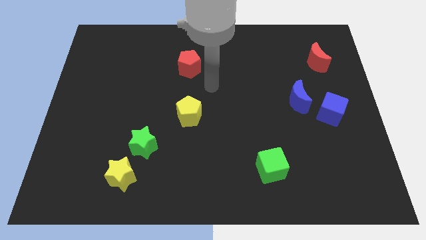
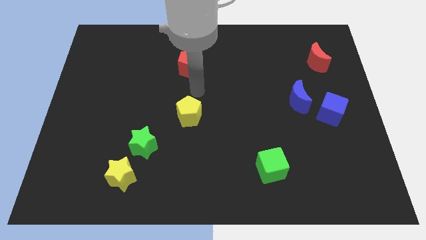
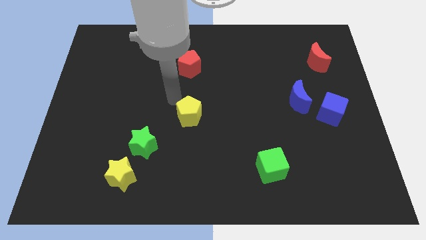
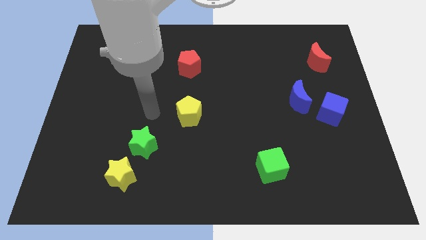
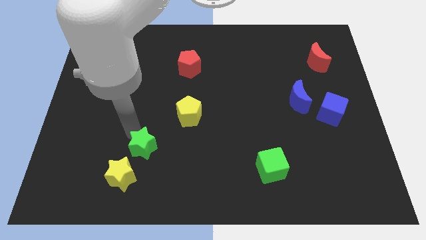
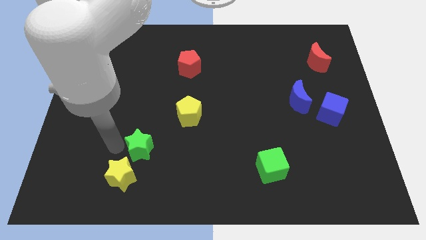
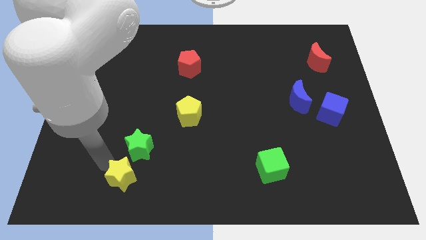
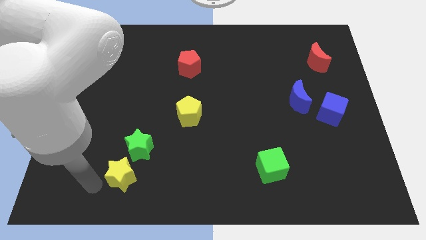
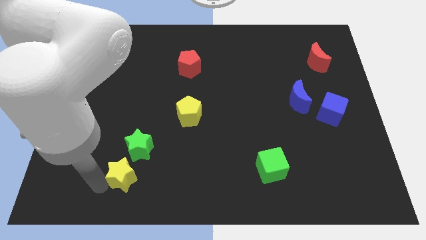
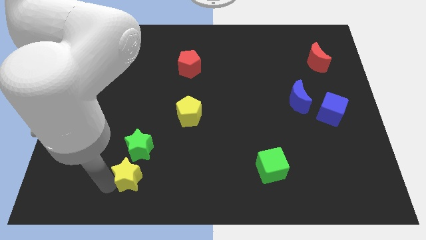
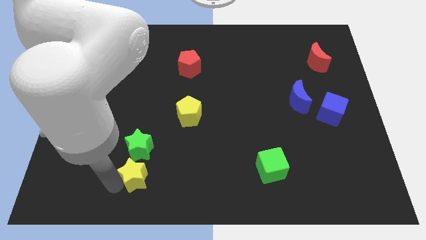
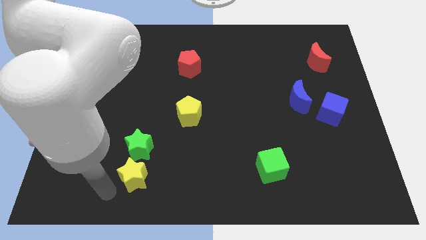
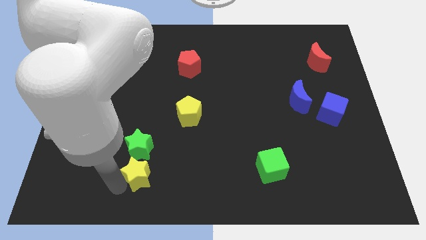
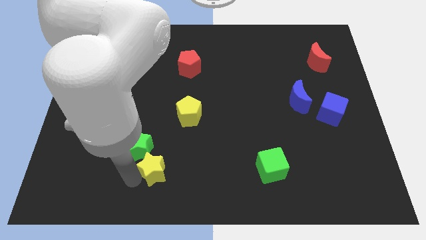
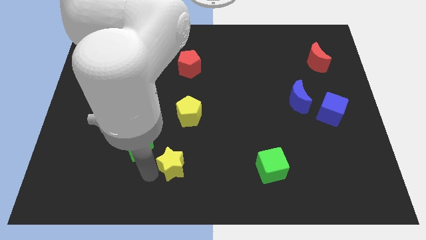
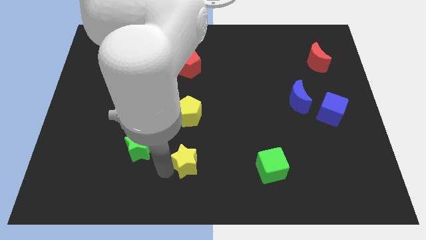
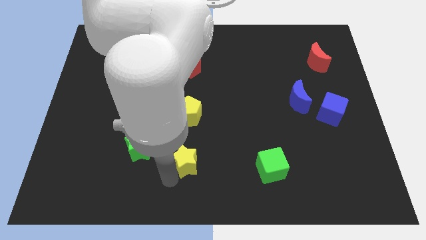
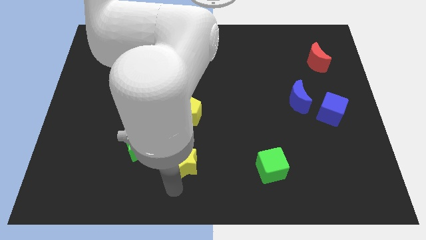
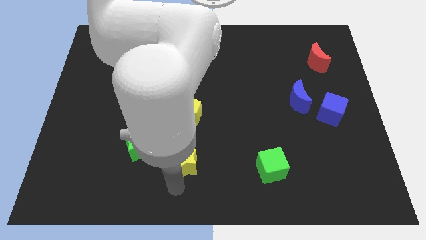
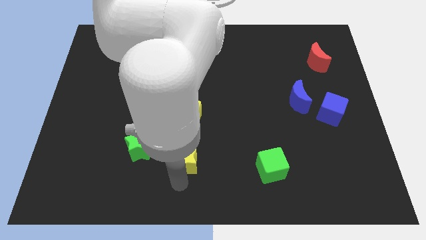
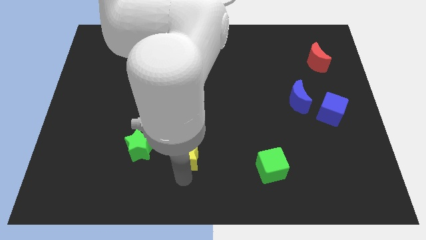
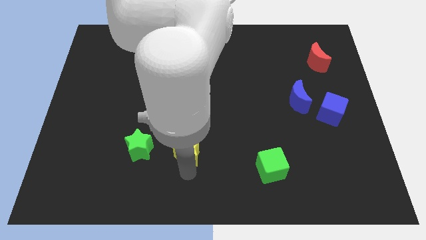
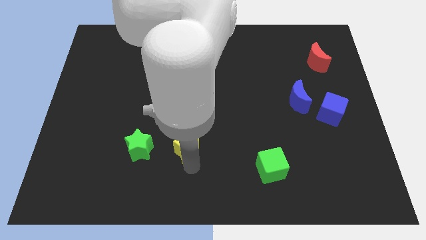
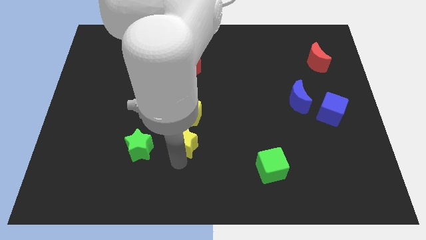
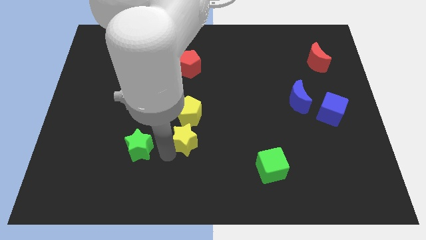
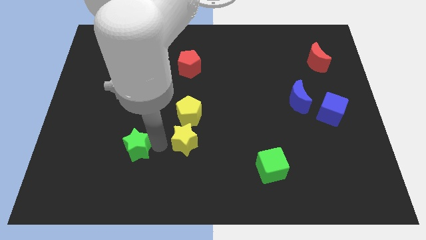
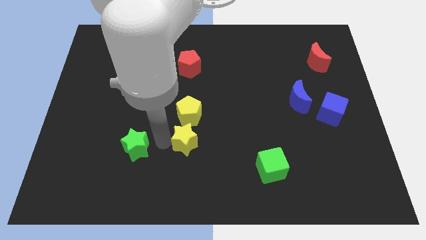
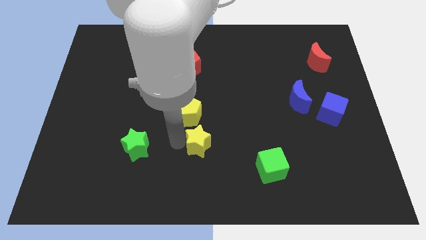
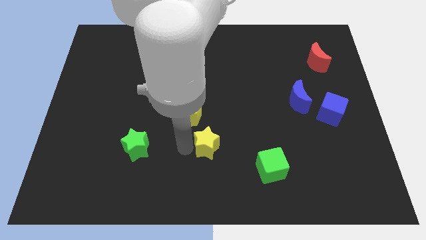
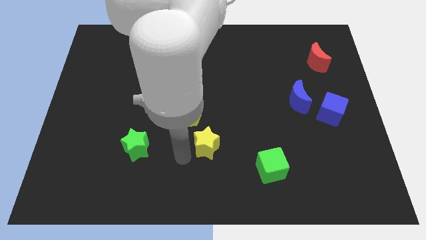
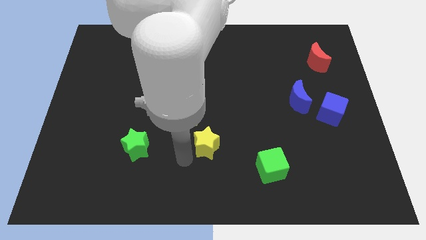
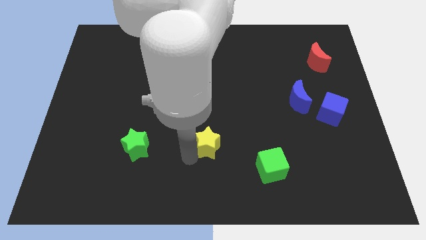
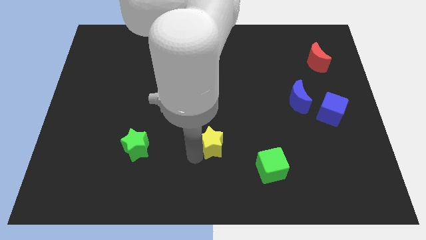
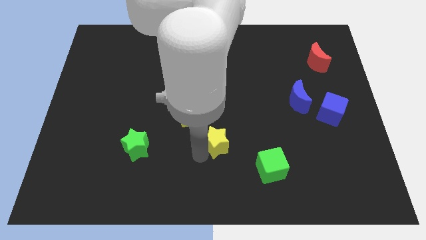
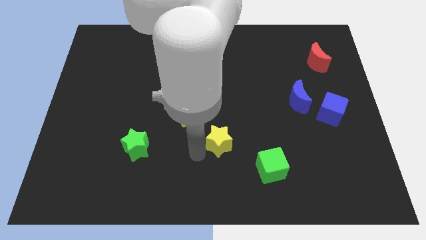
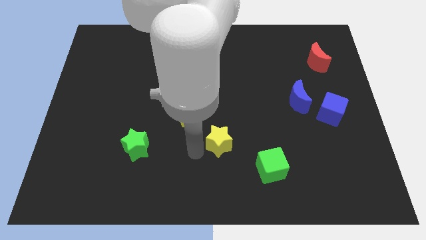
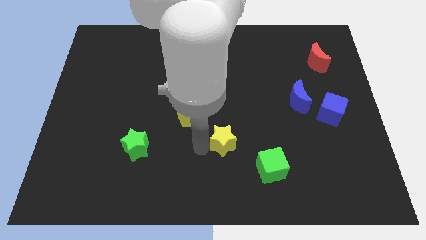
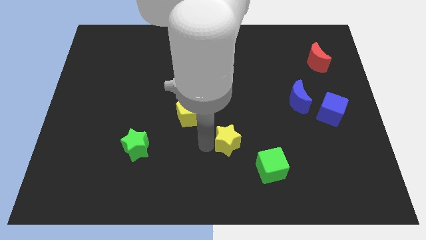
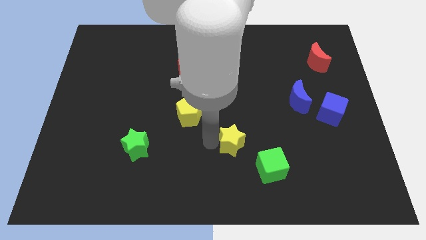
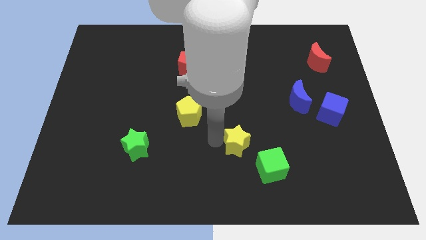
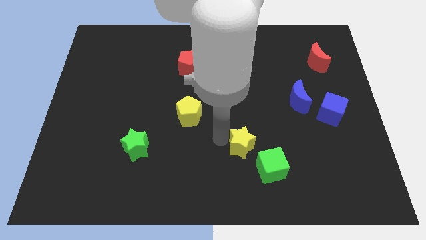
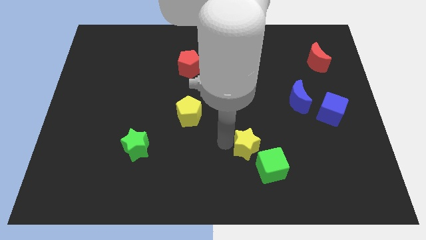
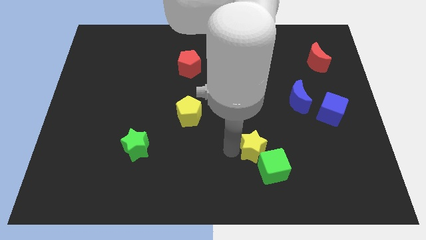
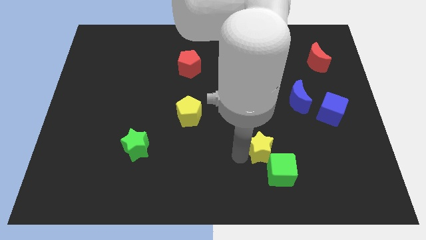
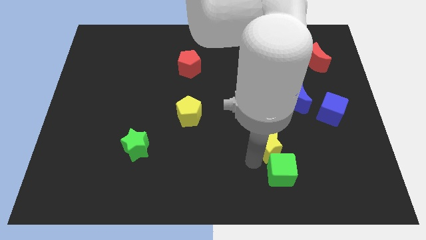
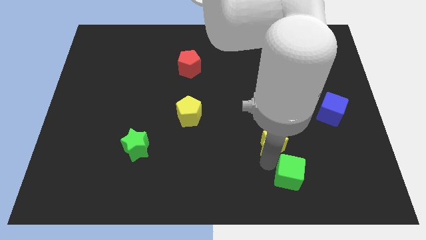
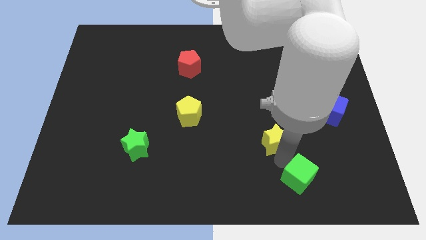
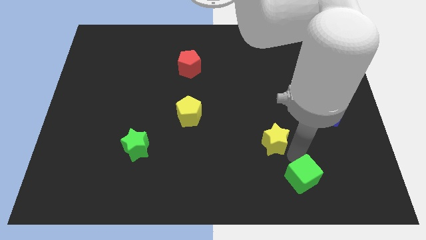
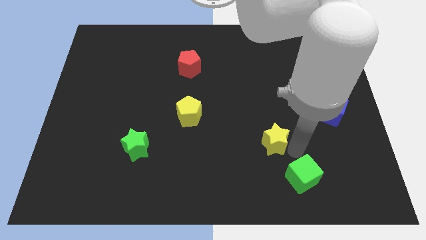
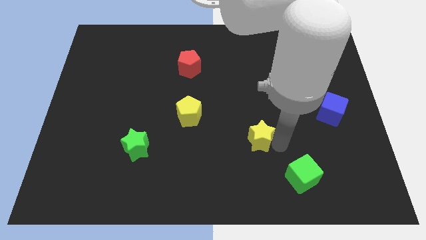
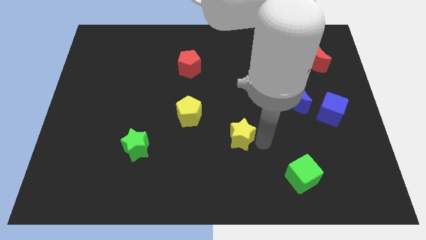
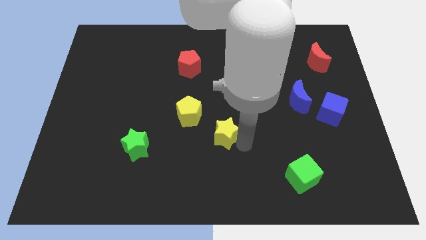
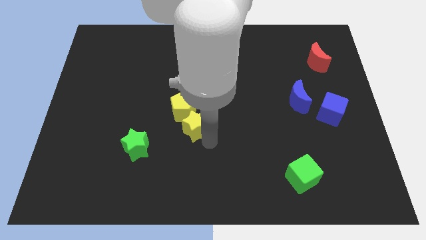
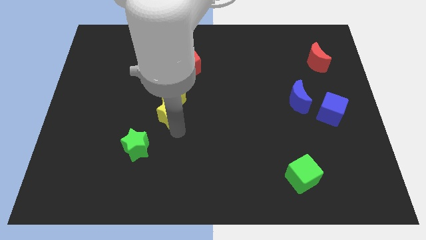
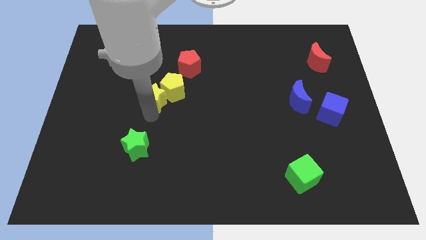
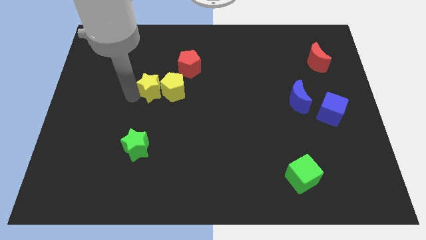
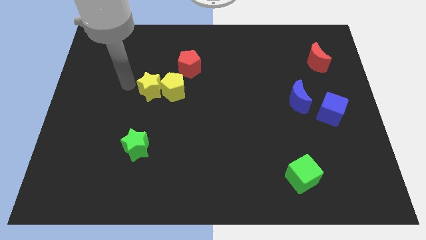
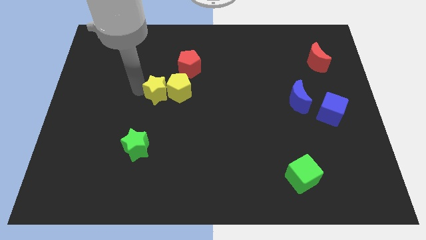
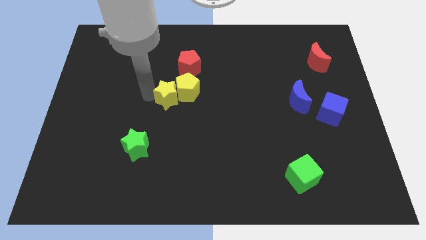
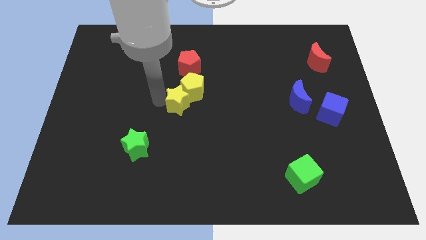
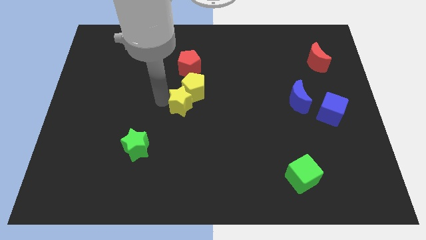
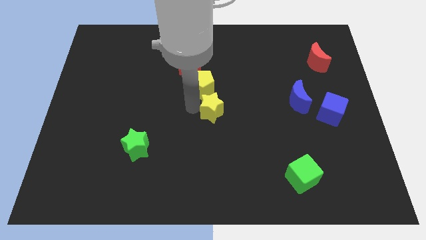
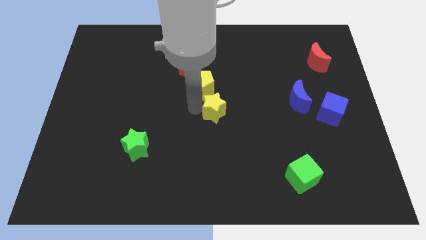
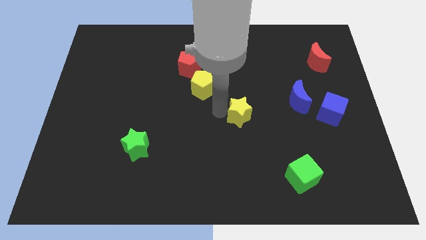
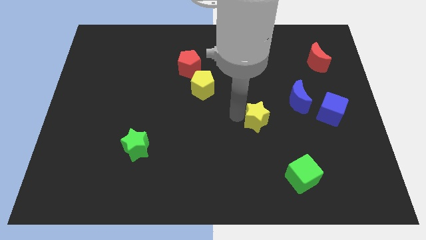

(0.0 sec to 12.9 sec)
put the yellow star to the bottom left of the blue moon
